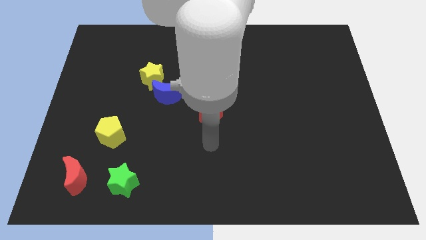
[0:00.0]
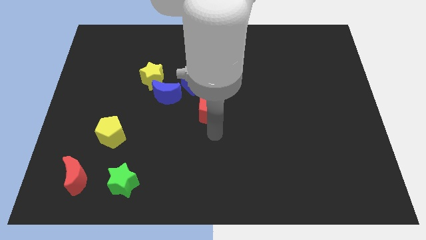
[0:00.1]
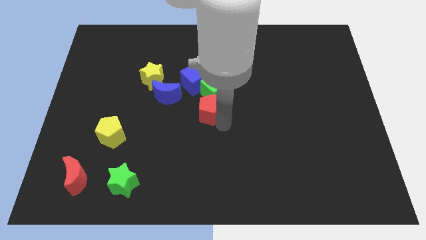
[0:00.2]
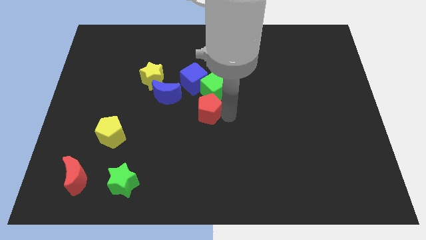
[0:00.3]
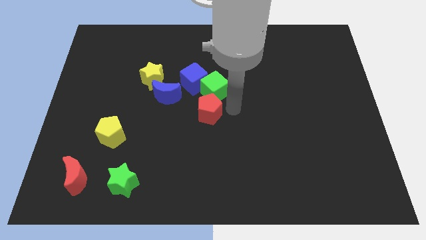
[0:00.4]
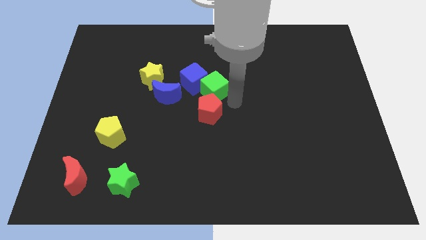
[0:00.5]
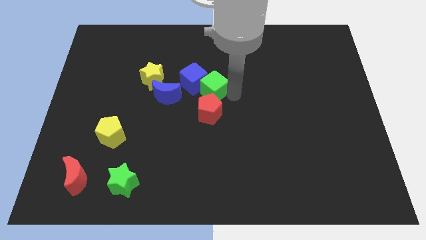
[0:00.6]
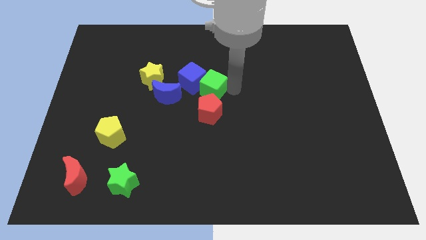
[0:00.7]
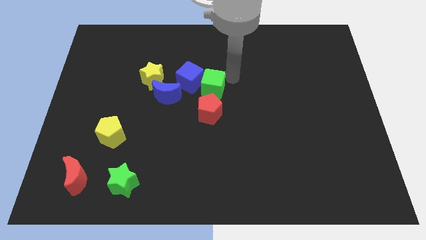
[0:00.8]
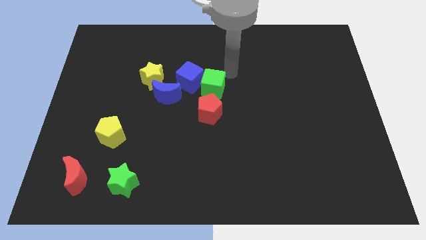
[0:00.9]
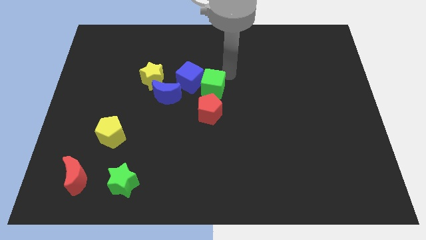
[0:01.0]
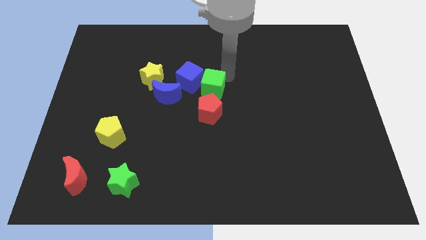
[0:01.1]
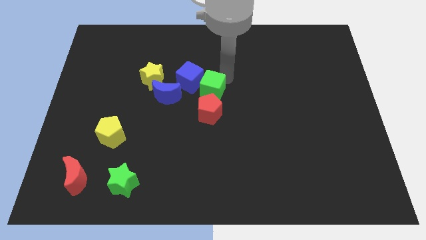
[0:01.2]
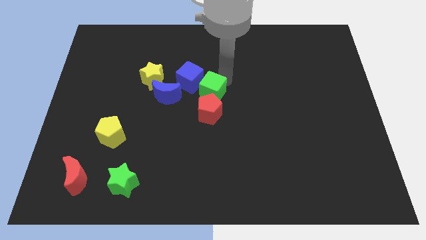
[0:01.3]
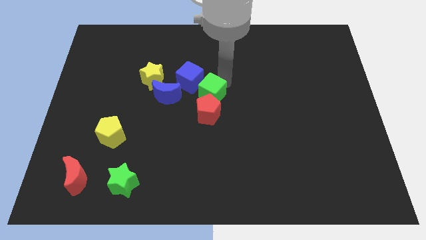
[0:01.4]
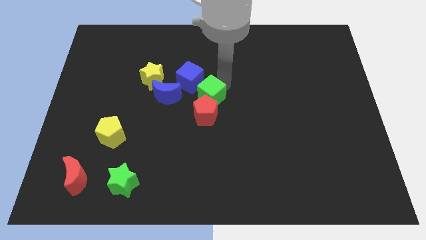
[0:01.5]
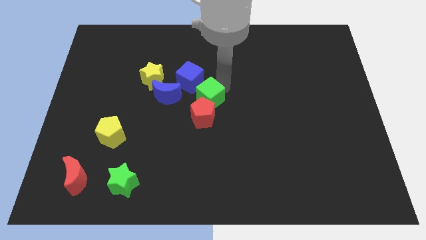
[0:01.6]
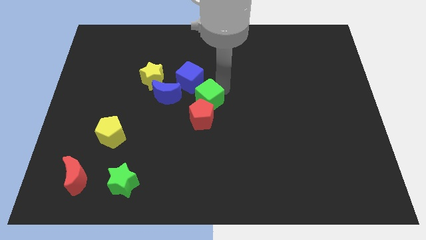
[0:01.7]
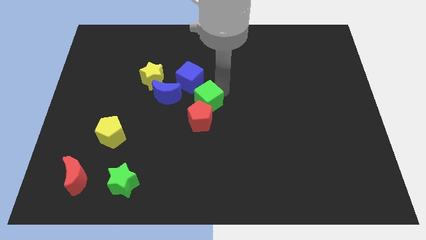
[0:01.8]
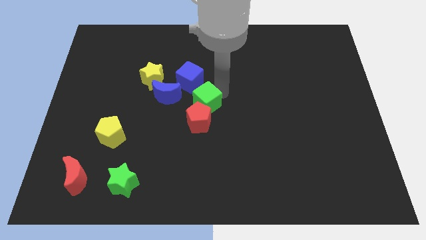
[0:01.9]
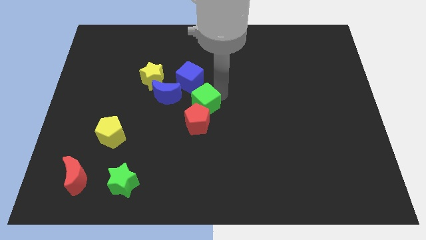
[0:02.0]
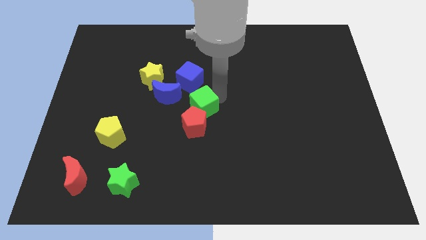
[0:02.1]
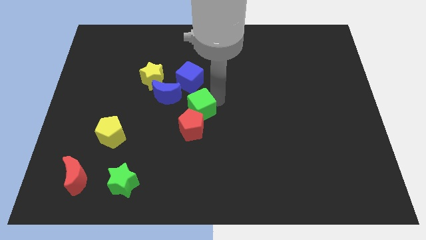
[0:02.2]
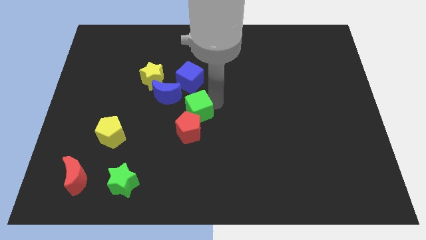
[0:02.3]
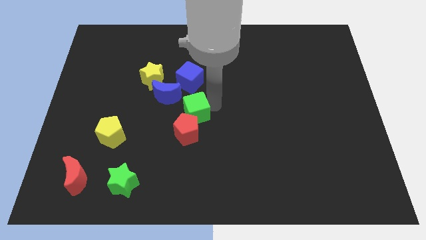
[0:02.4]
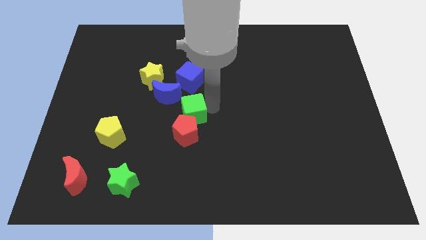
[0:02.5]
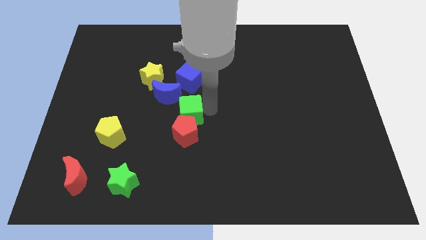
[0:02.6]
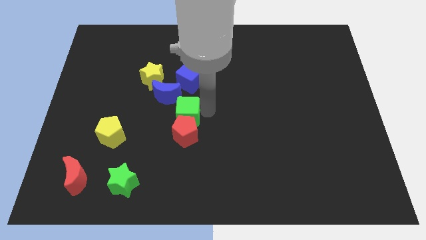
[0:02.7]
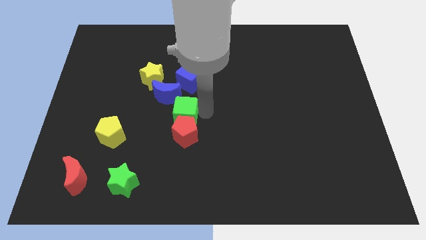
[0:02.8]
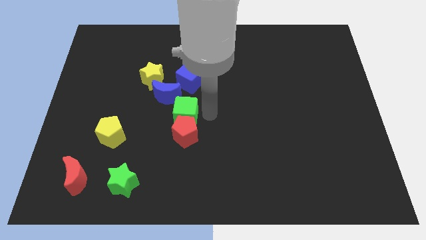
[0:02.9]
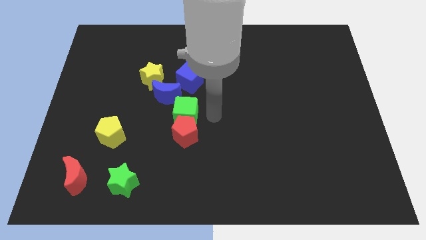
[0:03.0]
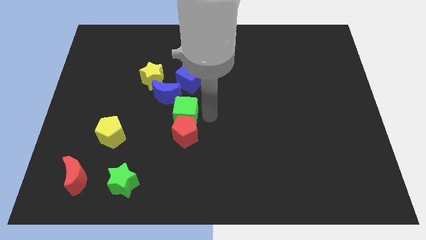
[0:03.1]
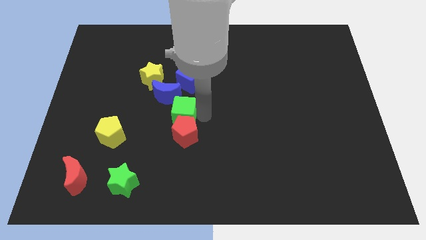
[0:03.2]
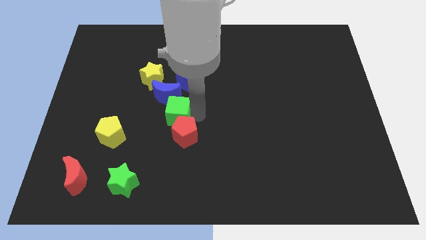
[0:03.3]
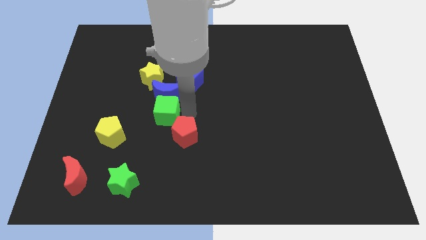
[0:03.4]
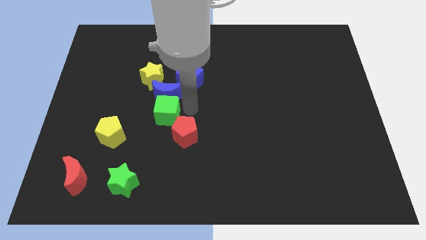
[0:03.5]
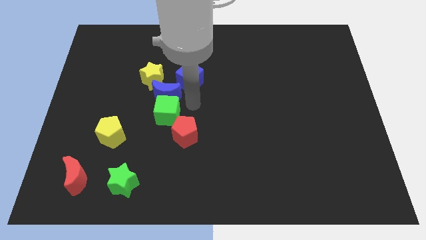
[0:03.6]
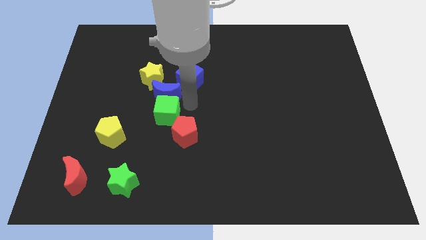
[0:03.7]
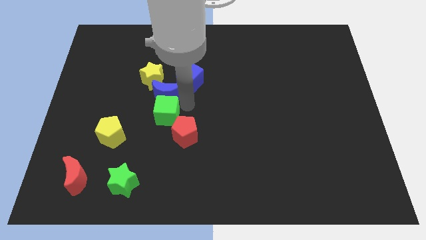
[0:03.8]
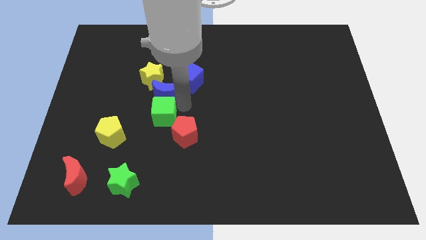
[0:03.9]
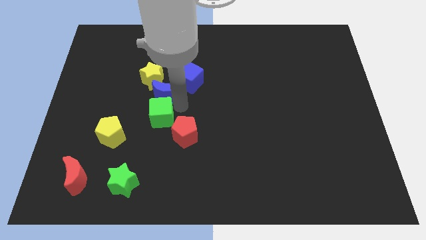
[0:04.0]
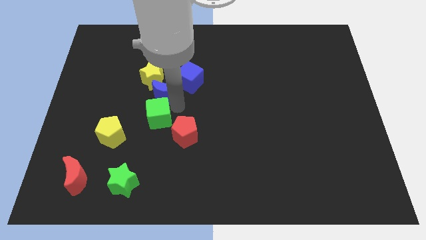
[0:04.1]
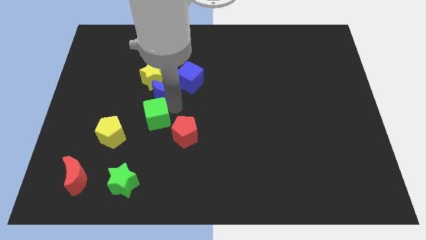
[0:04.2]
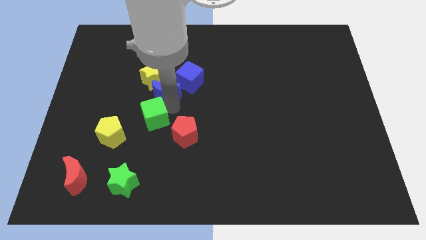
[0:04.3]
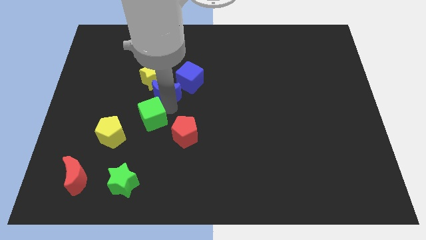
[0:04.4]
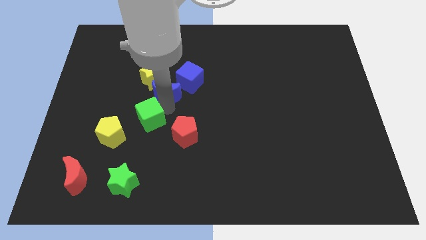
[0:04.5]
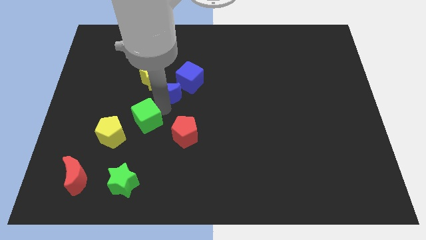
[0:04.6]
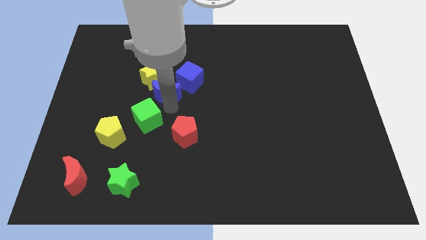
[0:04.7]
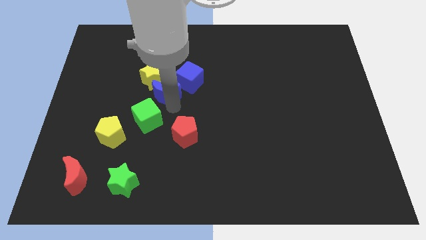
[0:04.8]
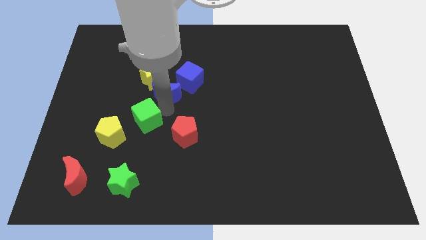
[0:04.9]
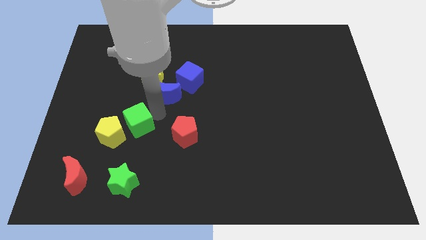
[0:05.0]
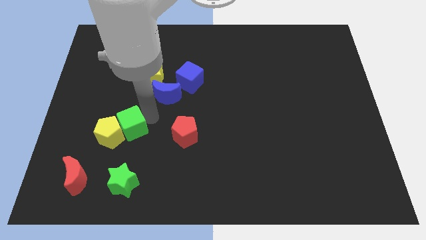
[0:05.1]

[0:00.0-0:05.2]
slide the green cube to the yellow pentagon

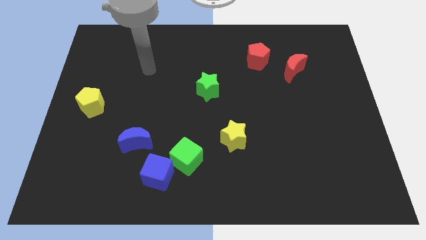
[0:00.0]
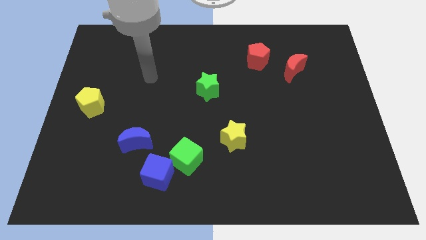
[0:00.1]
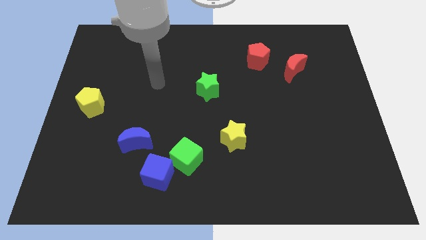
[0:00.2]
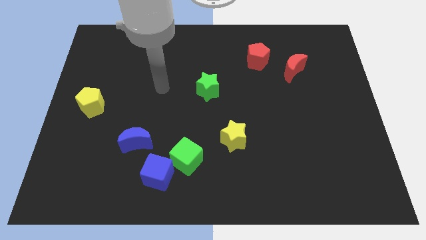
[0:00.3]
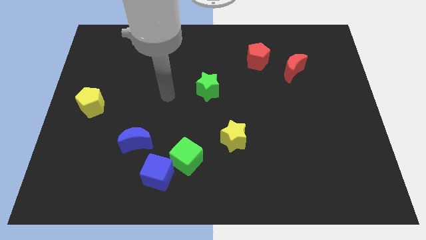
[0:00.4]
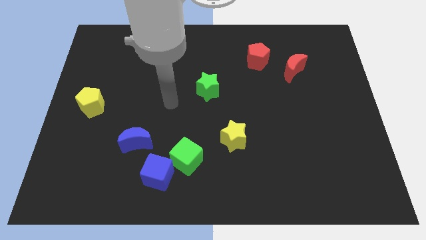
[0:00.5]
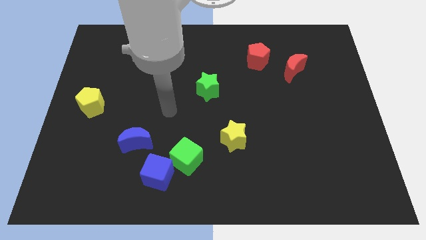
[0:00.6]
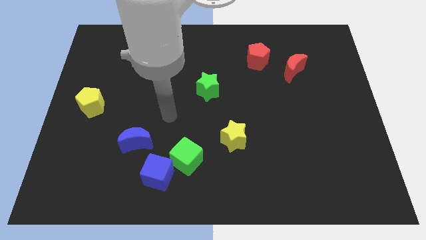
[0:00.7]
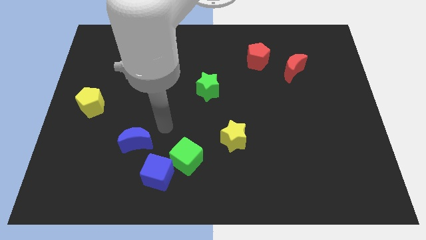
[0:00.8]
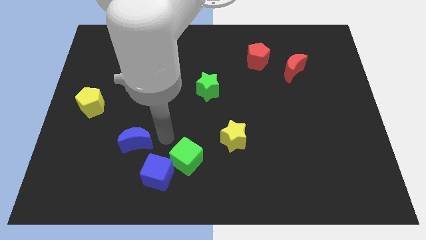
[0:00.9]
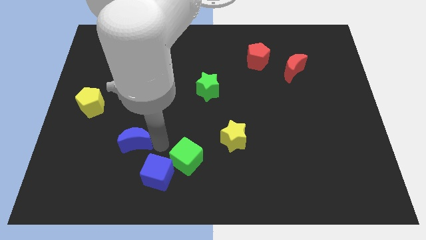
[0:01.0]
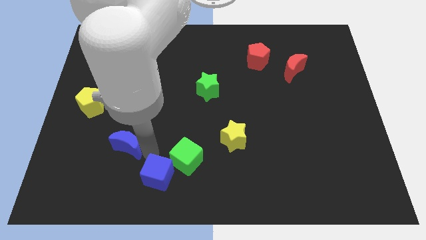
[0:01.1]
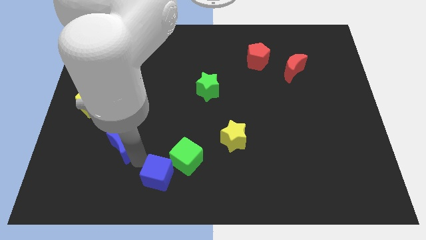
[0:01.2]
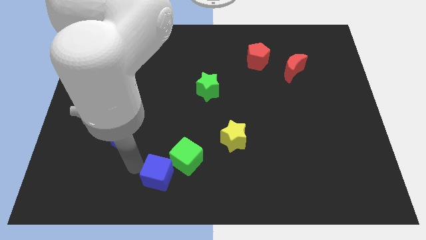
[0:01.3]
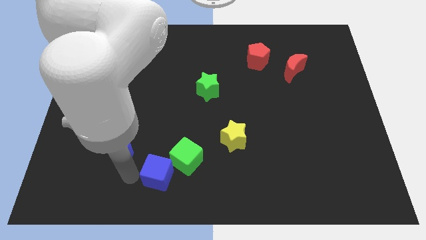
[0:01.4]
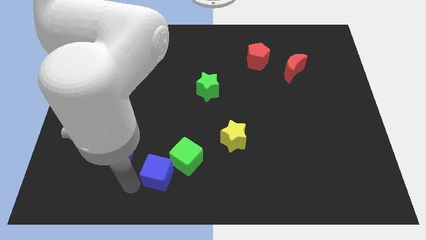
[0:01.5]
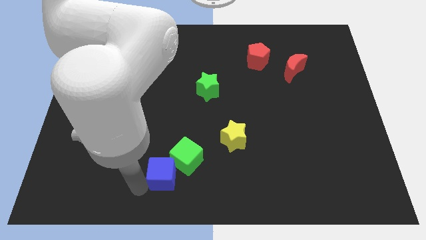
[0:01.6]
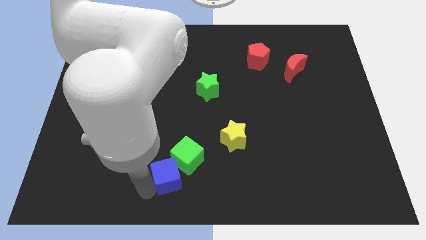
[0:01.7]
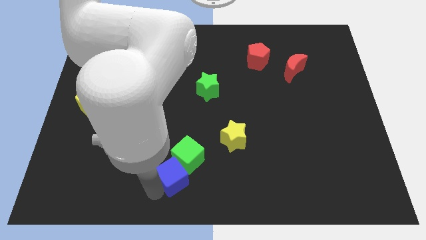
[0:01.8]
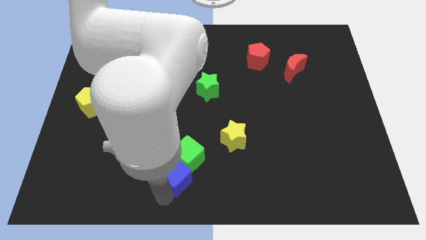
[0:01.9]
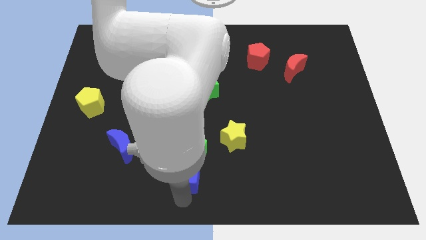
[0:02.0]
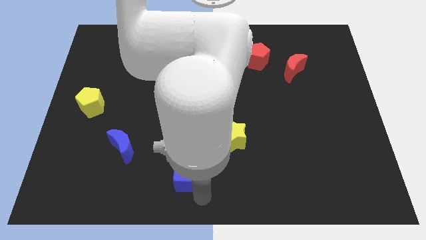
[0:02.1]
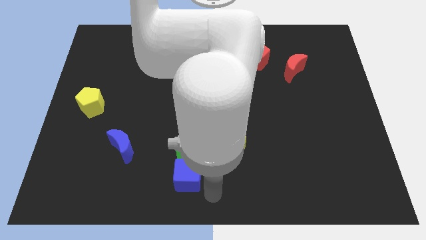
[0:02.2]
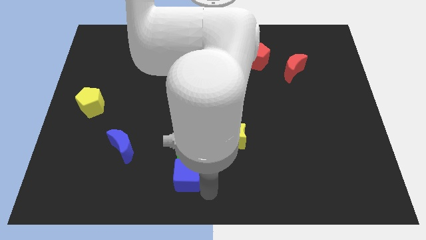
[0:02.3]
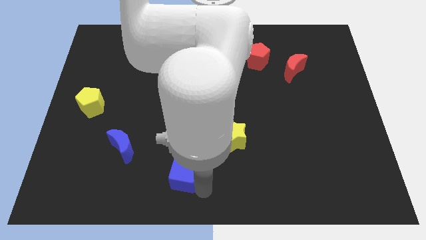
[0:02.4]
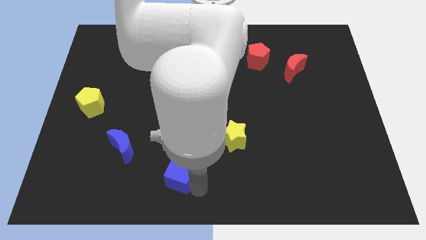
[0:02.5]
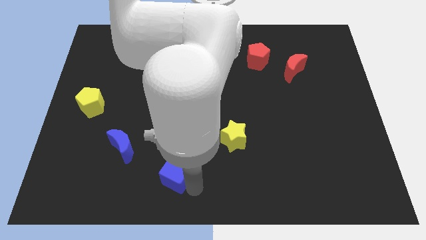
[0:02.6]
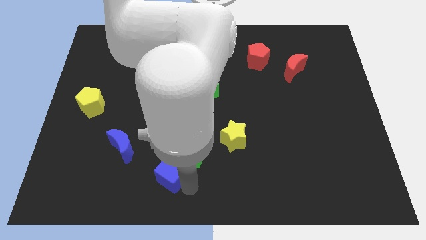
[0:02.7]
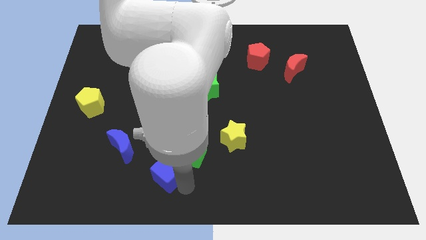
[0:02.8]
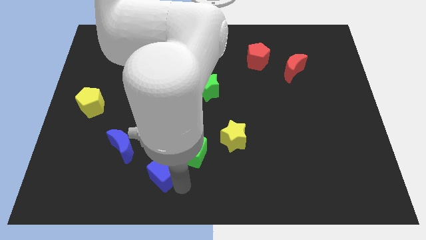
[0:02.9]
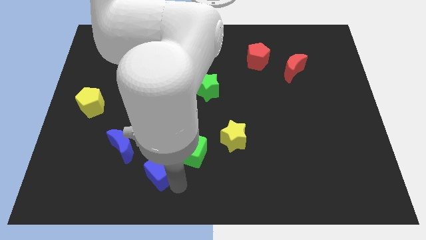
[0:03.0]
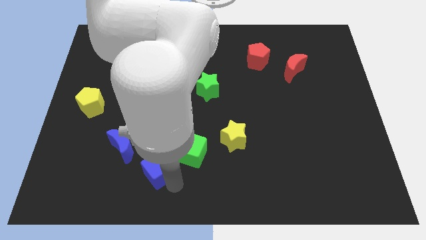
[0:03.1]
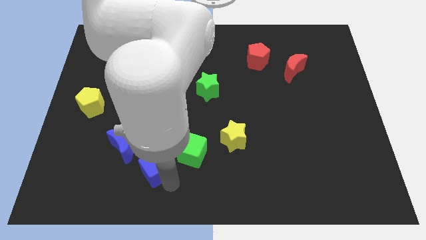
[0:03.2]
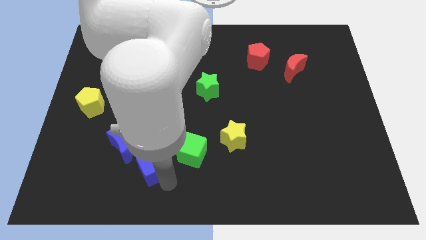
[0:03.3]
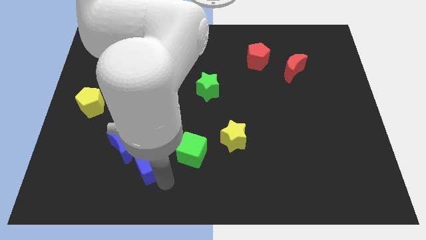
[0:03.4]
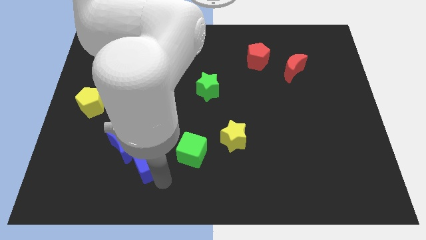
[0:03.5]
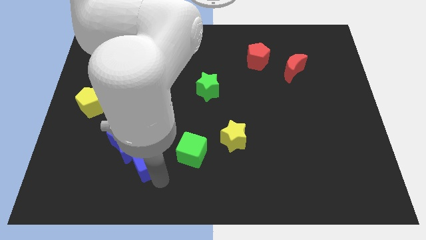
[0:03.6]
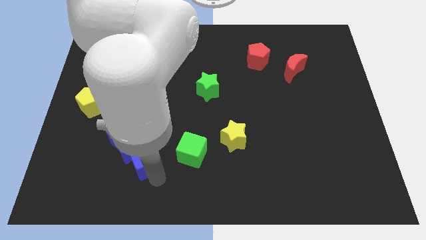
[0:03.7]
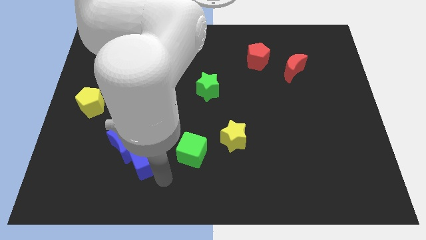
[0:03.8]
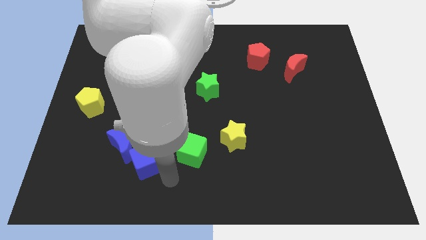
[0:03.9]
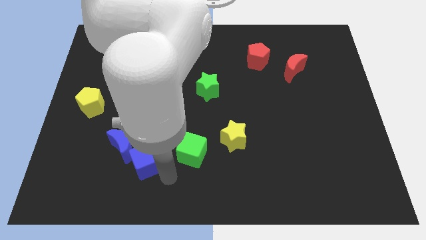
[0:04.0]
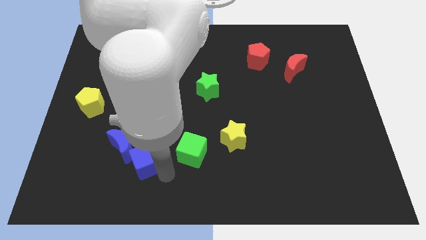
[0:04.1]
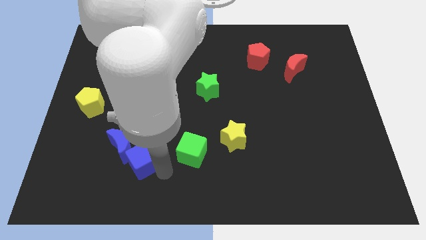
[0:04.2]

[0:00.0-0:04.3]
move the blue cube close to the blue moon
